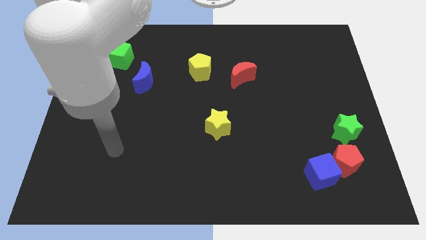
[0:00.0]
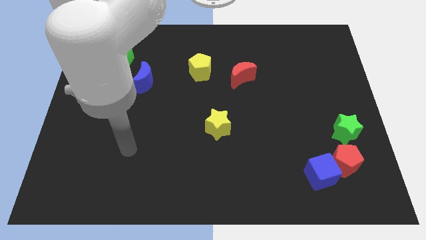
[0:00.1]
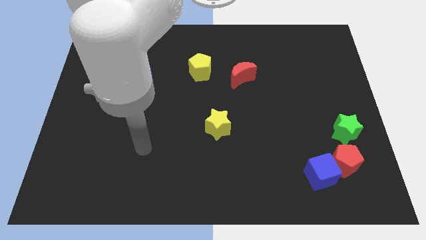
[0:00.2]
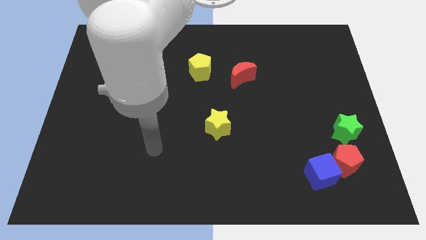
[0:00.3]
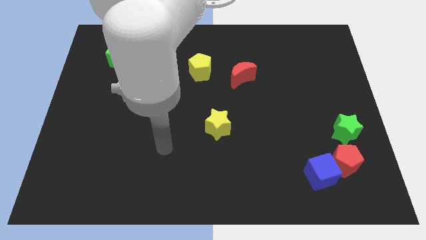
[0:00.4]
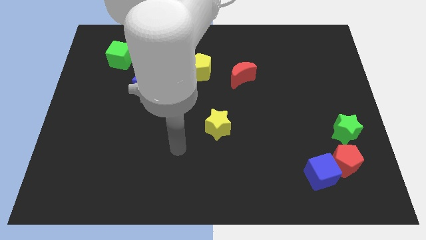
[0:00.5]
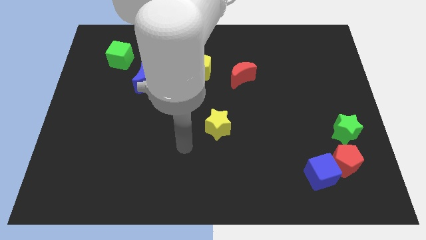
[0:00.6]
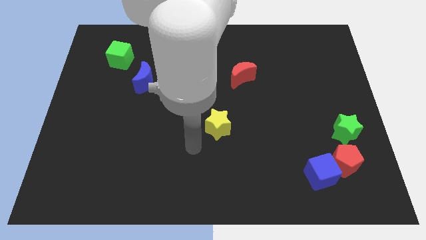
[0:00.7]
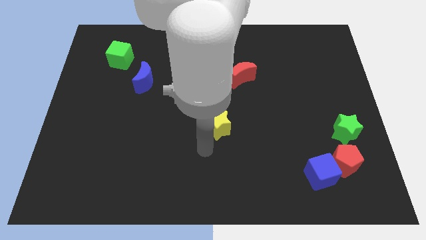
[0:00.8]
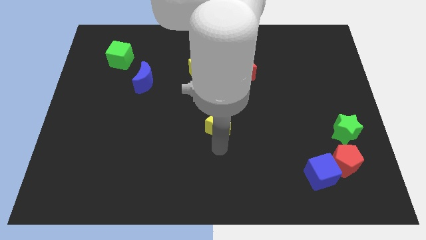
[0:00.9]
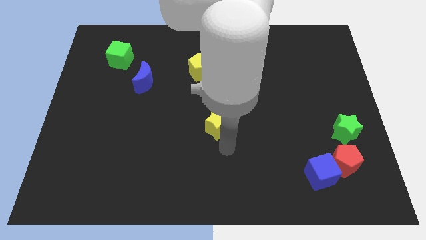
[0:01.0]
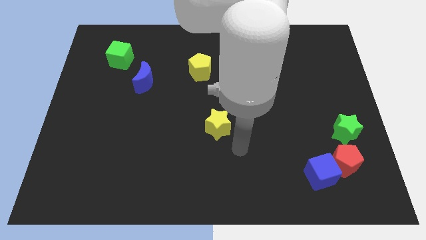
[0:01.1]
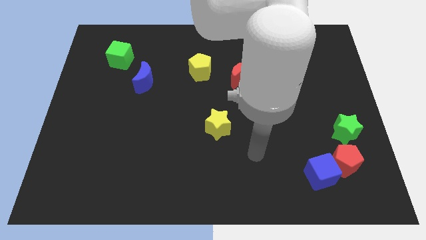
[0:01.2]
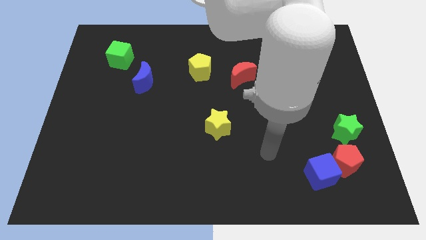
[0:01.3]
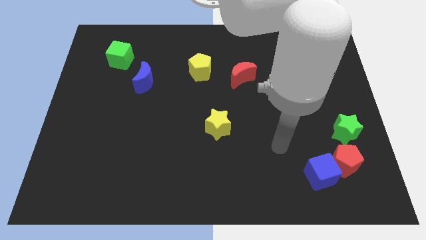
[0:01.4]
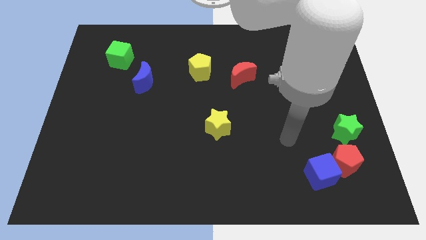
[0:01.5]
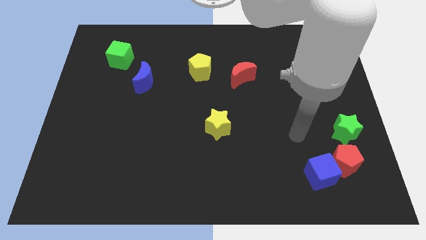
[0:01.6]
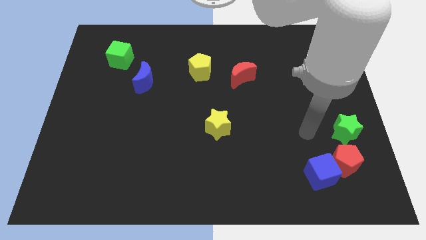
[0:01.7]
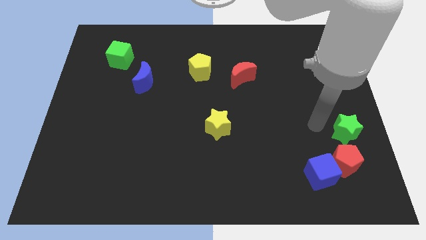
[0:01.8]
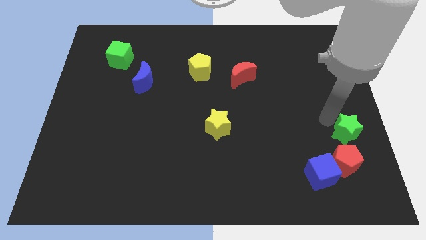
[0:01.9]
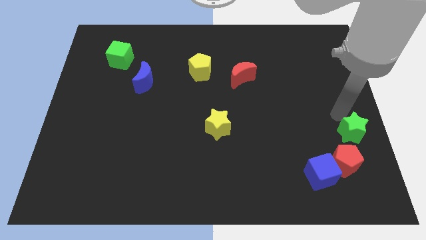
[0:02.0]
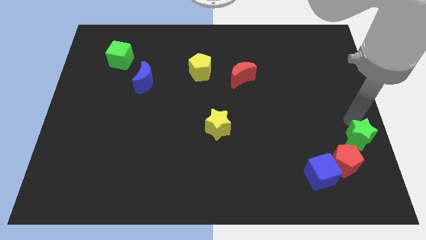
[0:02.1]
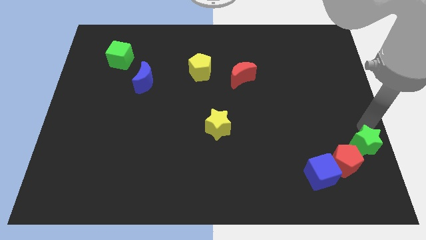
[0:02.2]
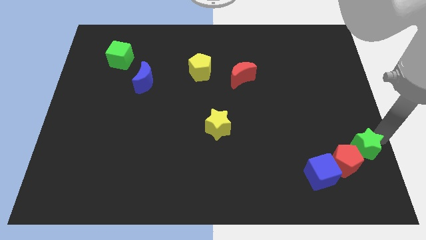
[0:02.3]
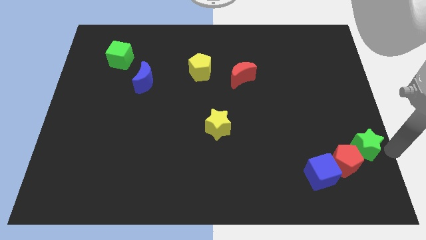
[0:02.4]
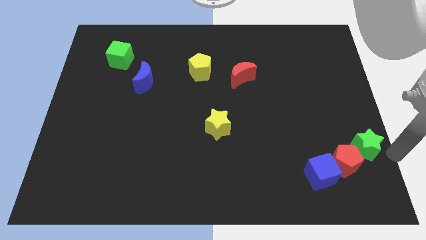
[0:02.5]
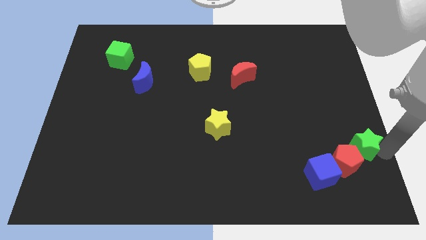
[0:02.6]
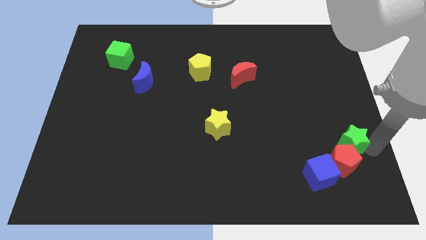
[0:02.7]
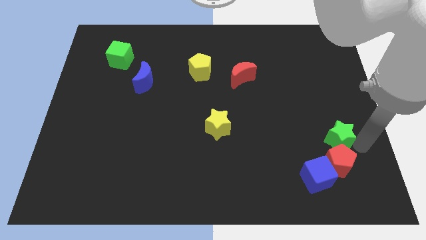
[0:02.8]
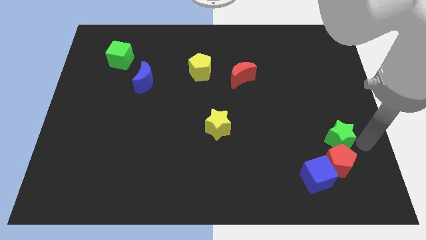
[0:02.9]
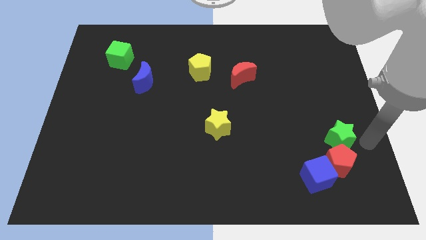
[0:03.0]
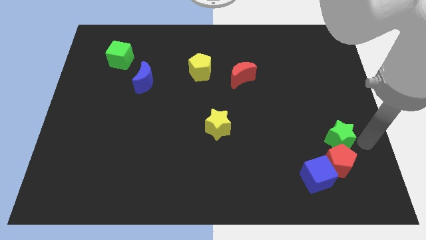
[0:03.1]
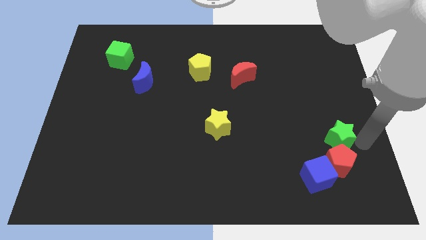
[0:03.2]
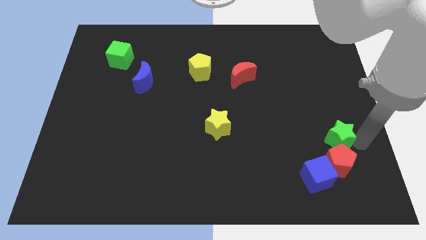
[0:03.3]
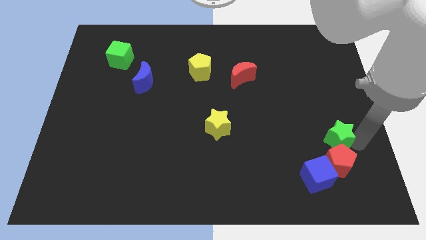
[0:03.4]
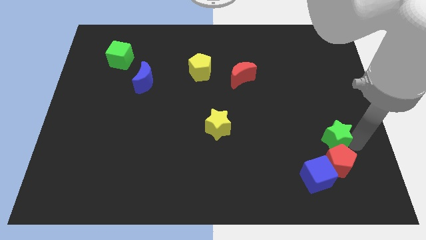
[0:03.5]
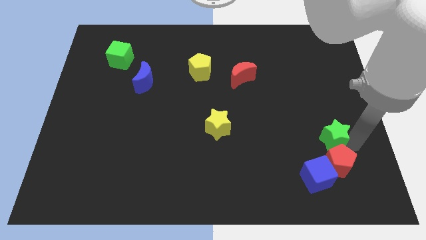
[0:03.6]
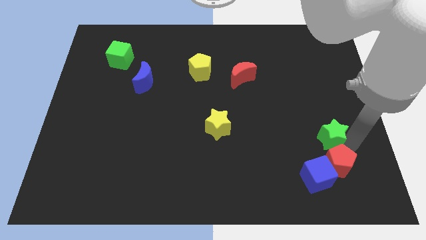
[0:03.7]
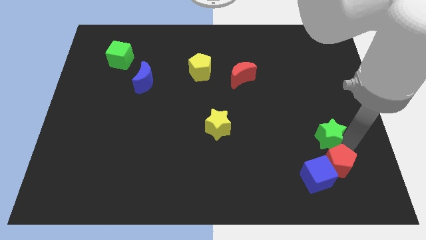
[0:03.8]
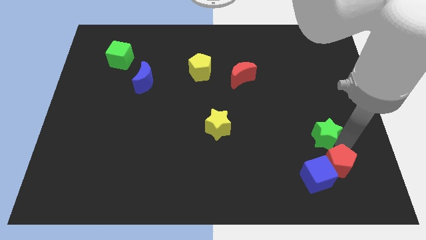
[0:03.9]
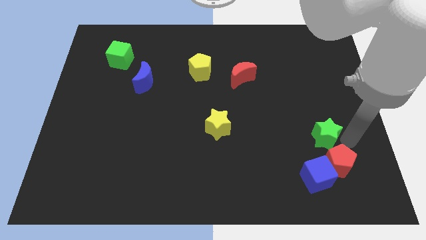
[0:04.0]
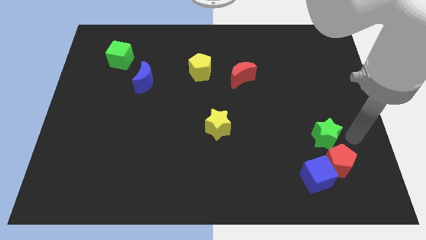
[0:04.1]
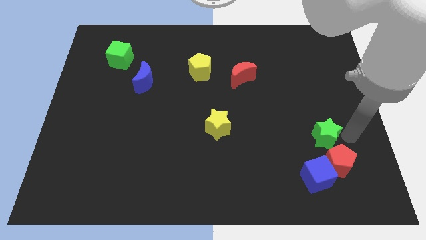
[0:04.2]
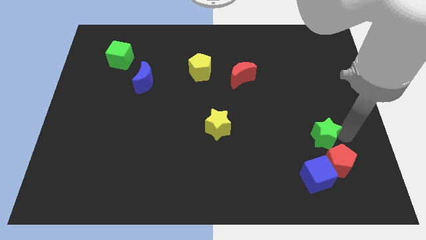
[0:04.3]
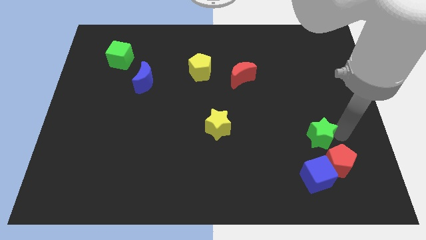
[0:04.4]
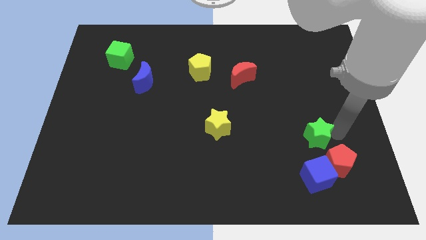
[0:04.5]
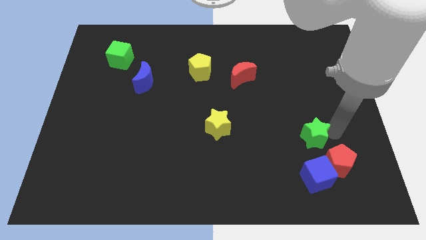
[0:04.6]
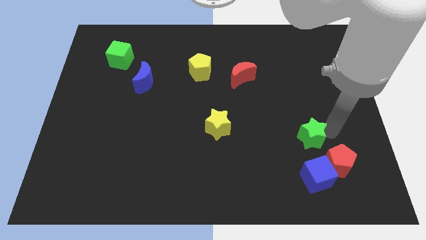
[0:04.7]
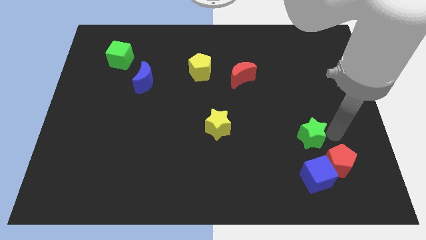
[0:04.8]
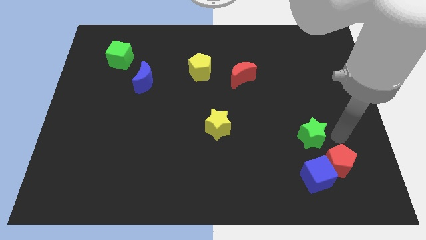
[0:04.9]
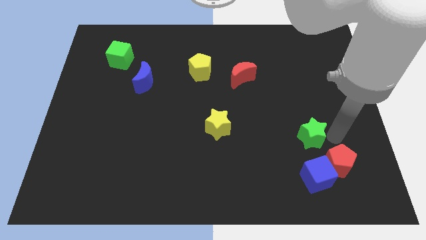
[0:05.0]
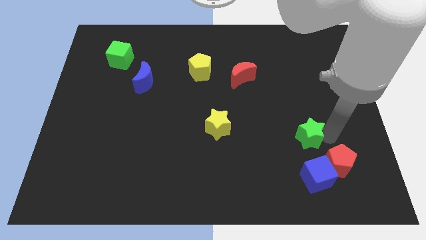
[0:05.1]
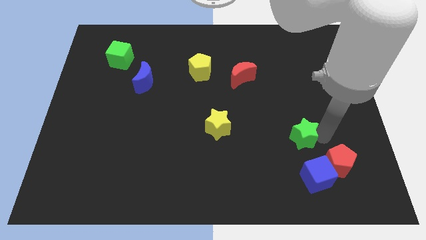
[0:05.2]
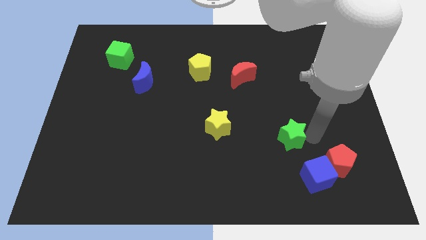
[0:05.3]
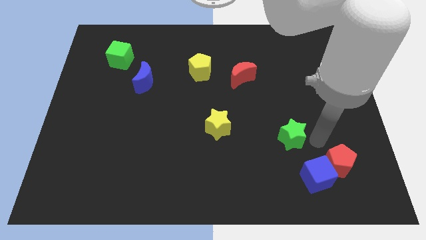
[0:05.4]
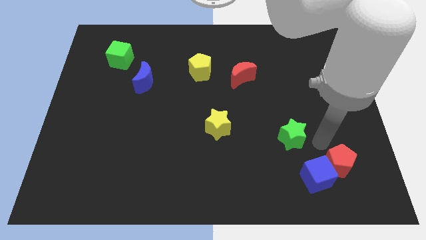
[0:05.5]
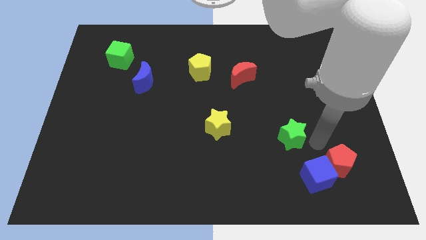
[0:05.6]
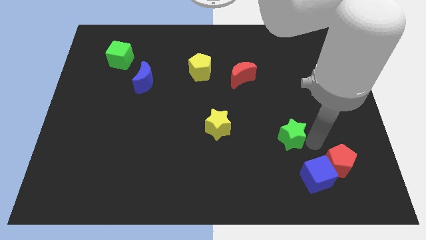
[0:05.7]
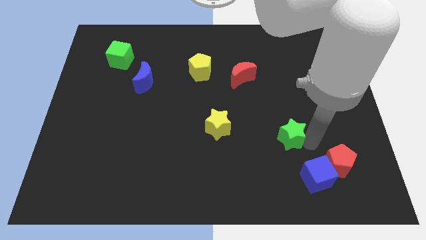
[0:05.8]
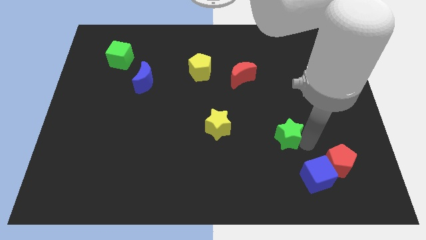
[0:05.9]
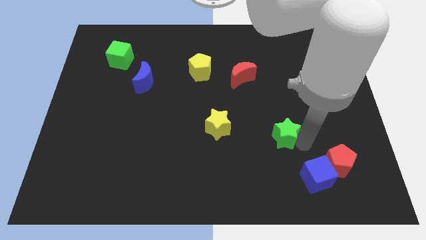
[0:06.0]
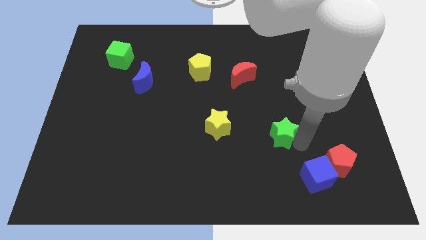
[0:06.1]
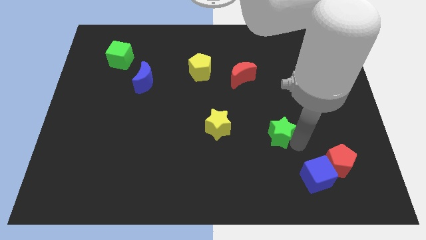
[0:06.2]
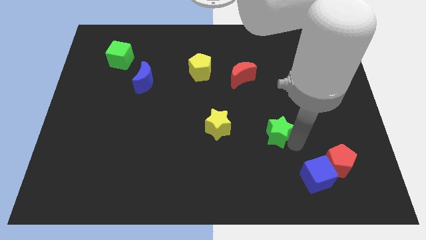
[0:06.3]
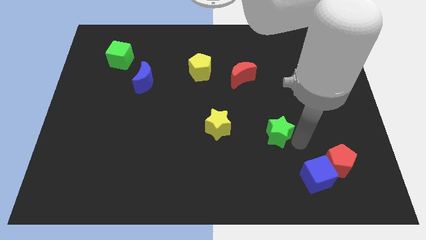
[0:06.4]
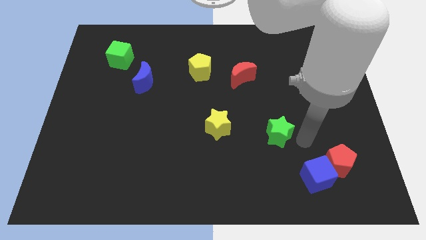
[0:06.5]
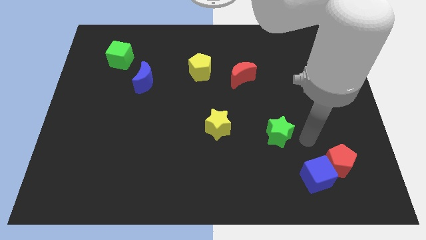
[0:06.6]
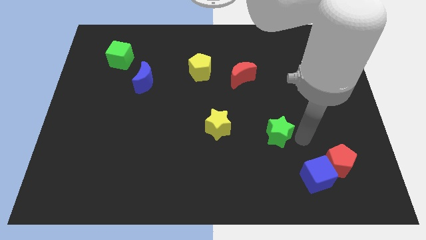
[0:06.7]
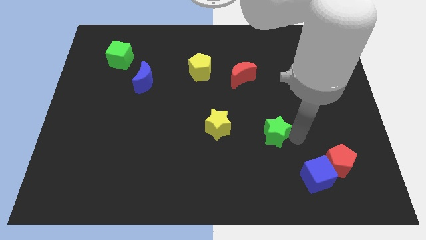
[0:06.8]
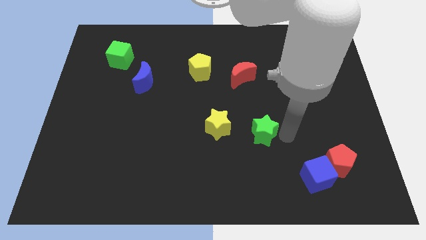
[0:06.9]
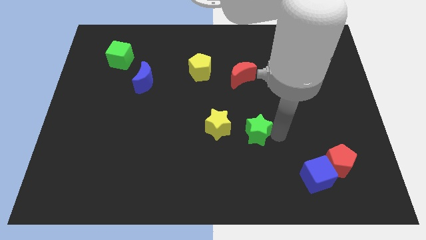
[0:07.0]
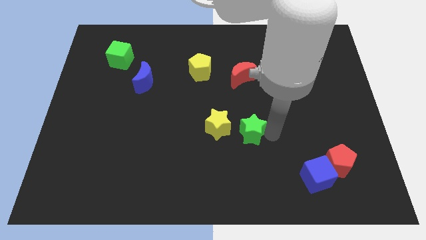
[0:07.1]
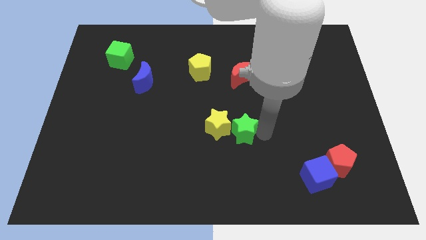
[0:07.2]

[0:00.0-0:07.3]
slide the green star to the yellow star

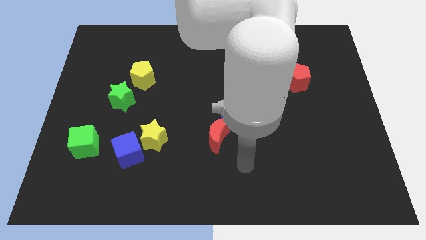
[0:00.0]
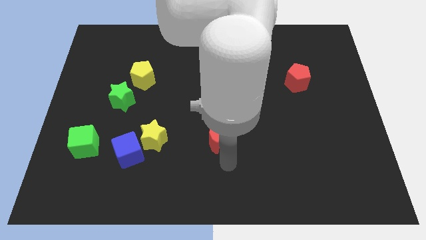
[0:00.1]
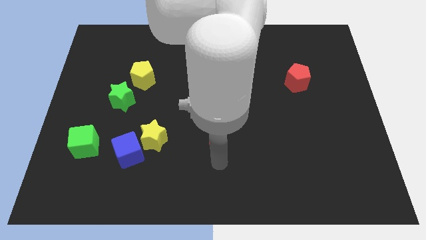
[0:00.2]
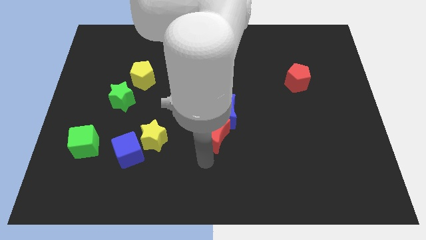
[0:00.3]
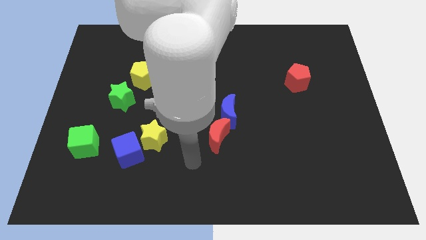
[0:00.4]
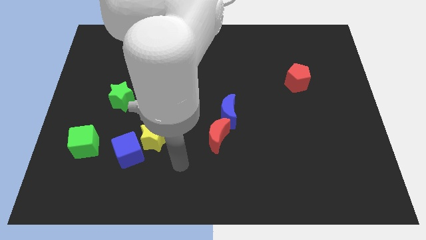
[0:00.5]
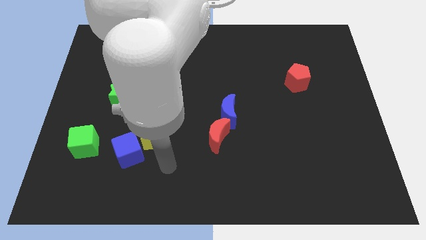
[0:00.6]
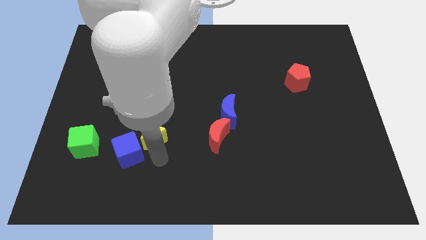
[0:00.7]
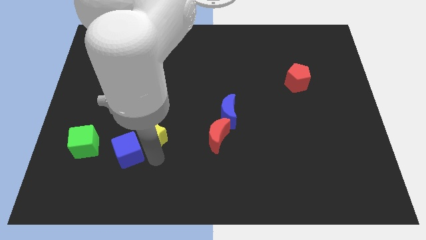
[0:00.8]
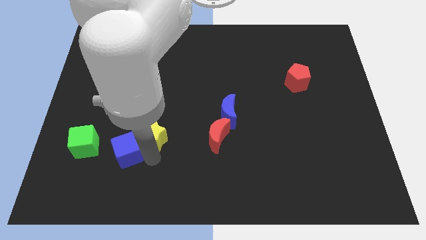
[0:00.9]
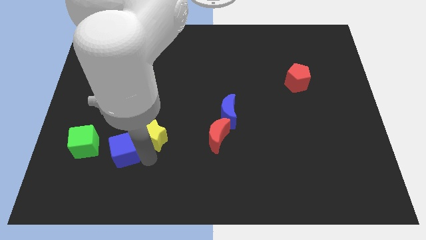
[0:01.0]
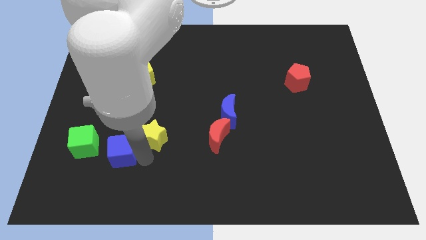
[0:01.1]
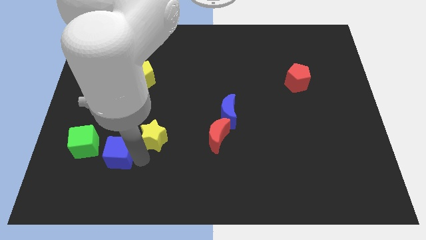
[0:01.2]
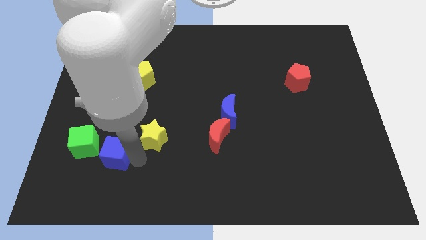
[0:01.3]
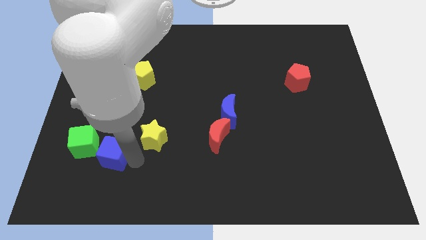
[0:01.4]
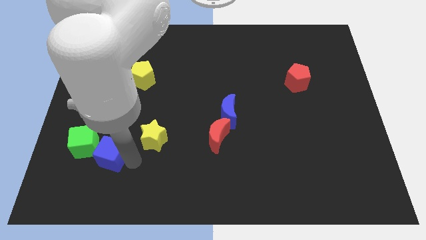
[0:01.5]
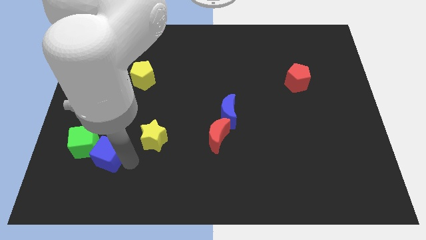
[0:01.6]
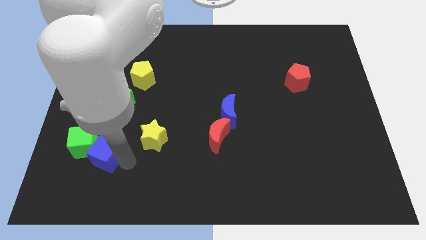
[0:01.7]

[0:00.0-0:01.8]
move the blue cube close to the green cube
